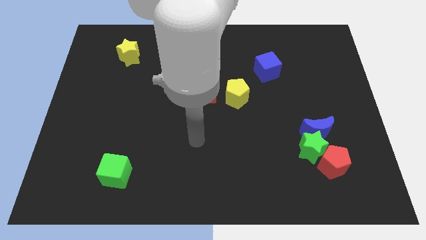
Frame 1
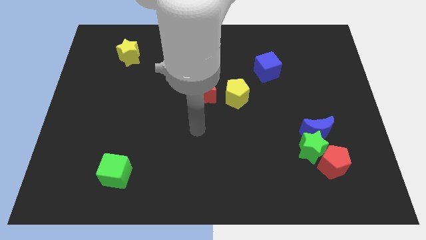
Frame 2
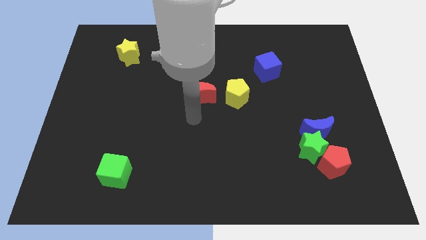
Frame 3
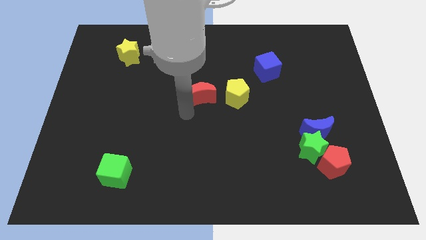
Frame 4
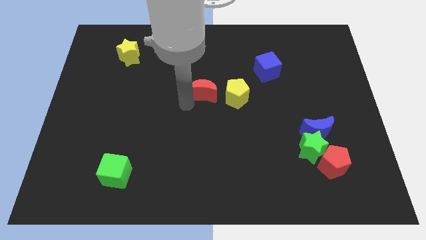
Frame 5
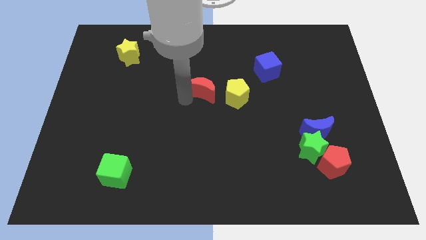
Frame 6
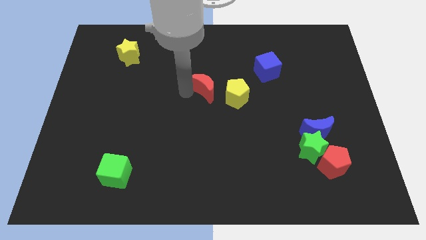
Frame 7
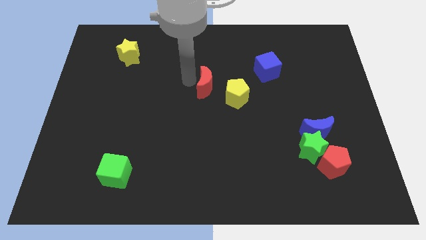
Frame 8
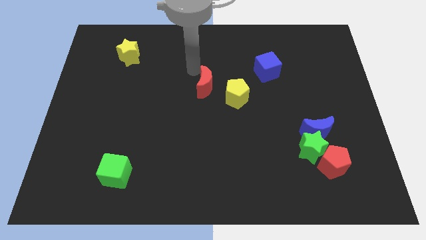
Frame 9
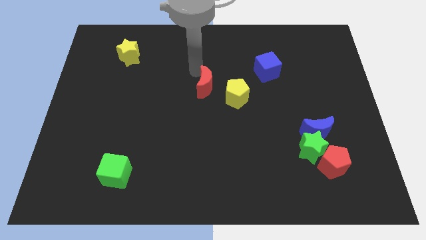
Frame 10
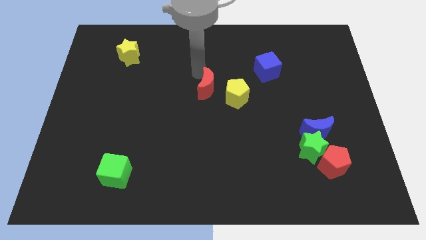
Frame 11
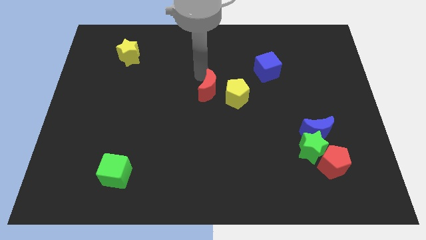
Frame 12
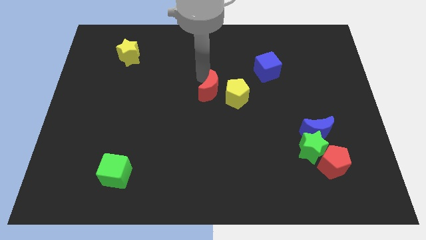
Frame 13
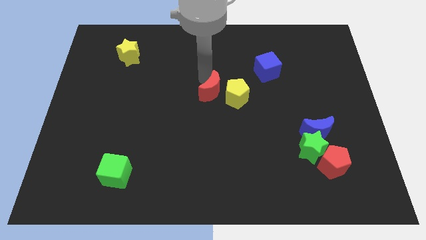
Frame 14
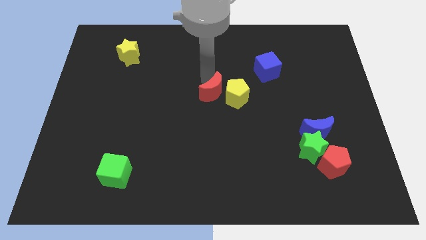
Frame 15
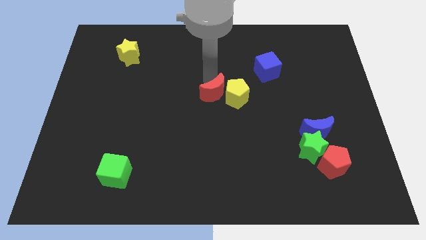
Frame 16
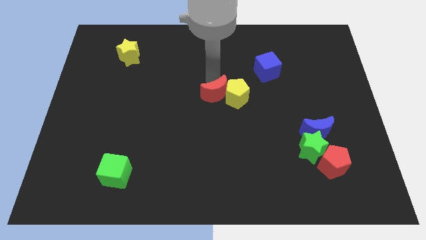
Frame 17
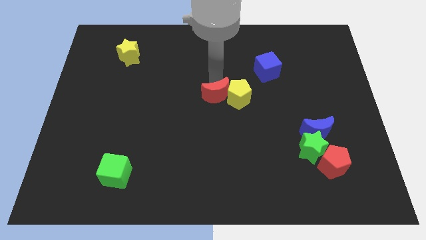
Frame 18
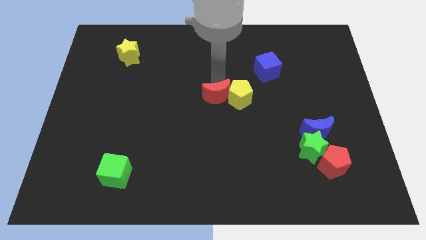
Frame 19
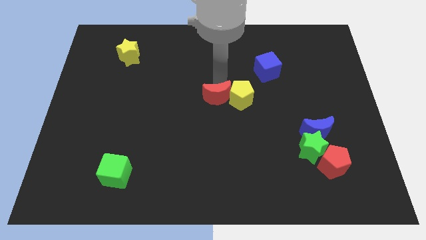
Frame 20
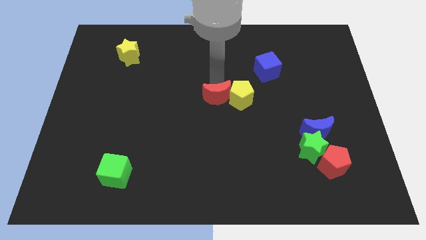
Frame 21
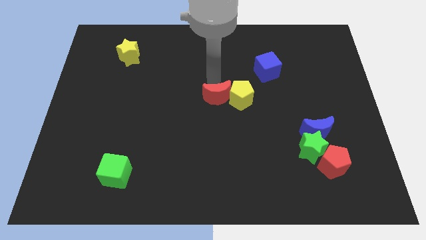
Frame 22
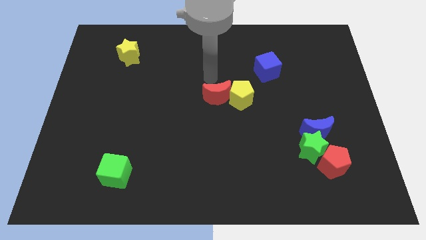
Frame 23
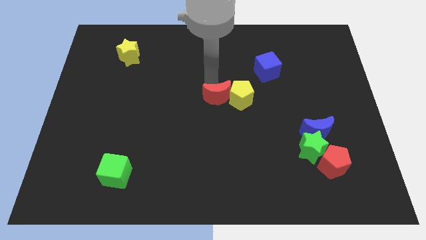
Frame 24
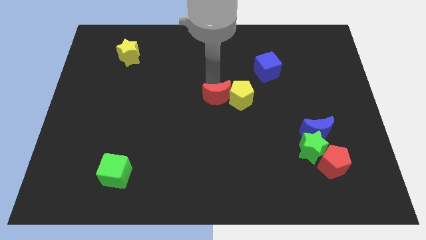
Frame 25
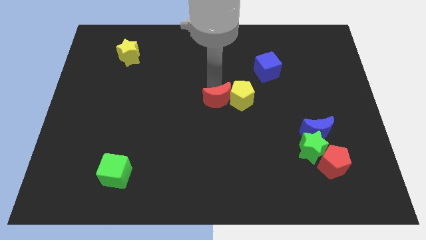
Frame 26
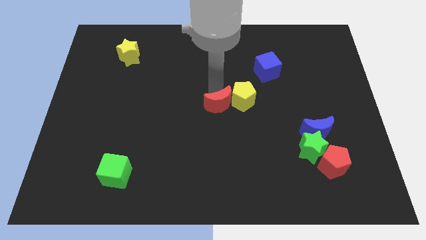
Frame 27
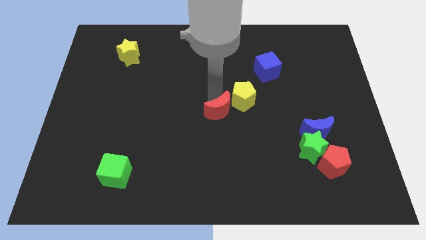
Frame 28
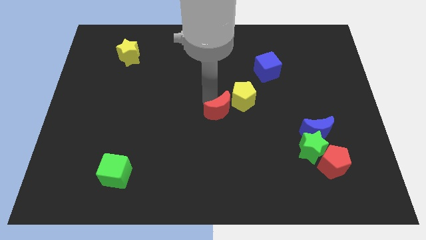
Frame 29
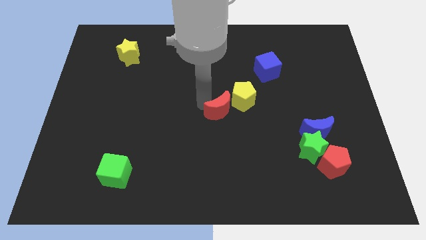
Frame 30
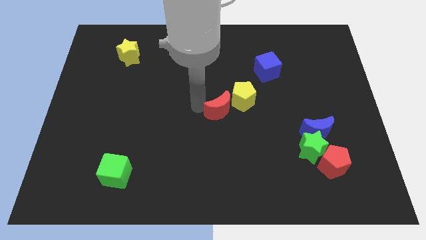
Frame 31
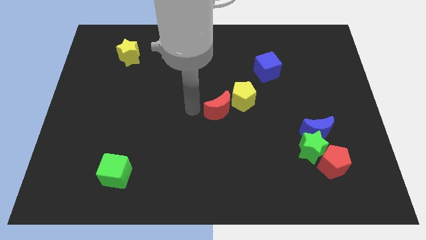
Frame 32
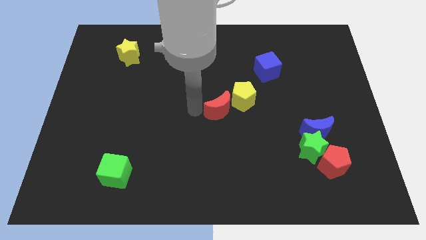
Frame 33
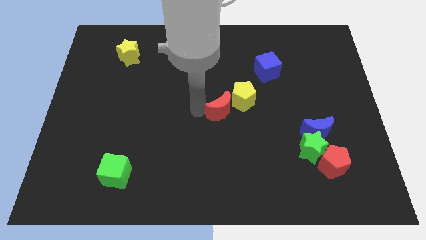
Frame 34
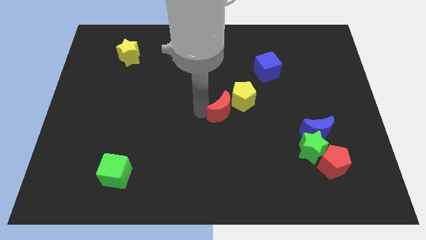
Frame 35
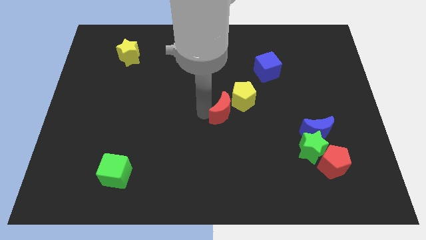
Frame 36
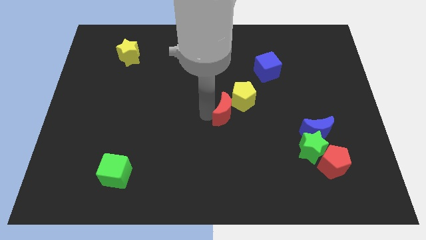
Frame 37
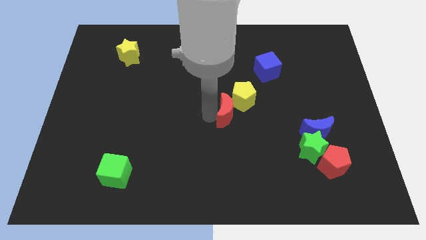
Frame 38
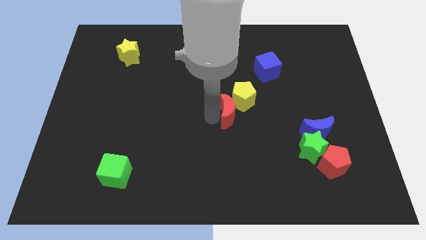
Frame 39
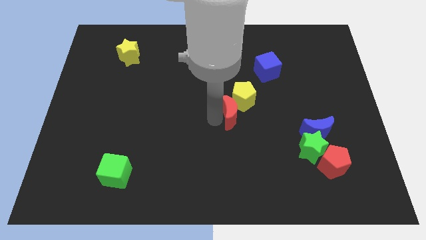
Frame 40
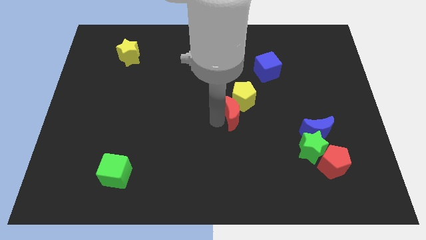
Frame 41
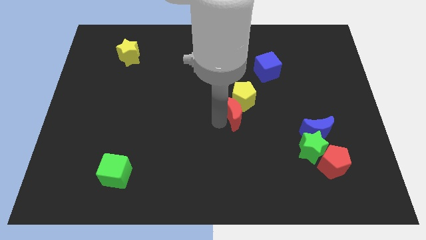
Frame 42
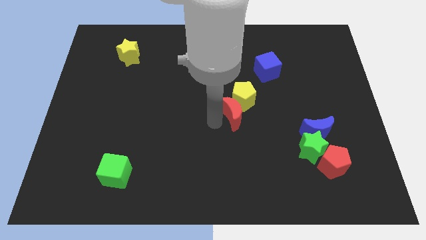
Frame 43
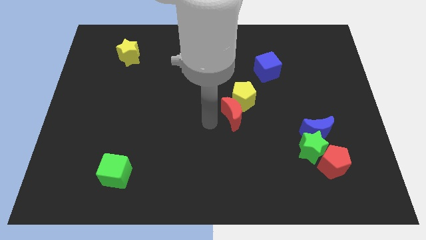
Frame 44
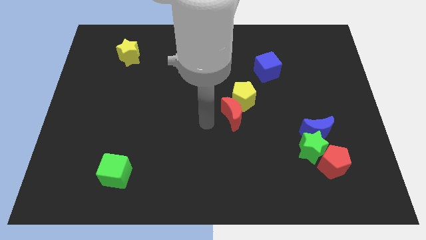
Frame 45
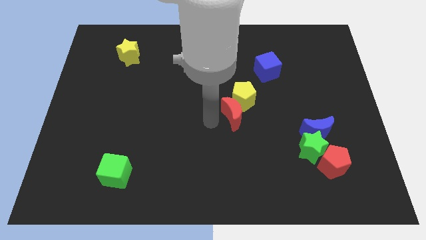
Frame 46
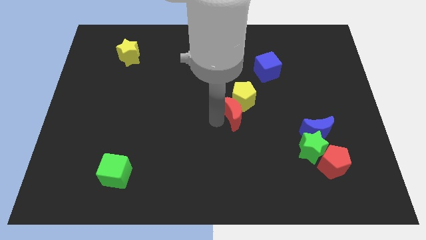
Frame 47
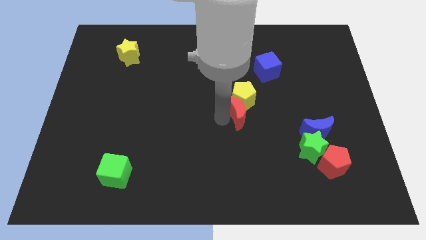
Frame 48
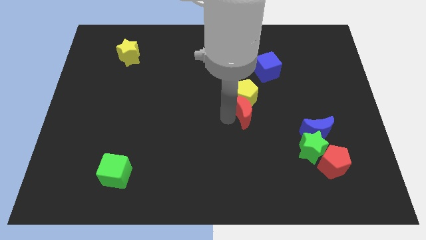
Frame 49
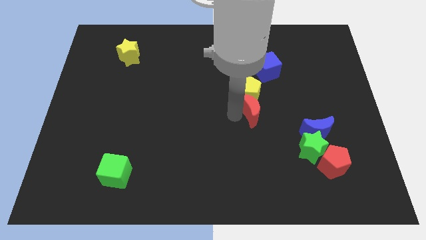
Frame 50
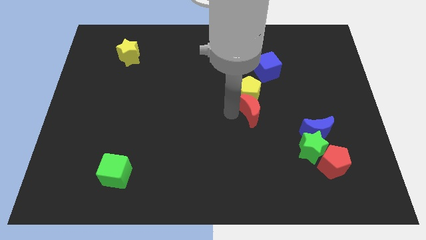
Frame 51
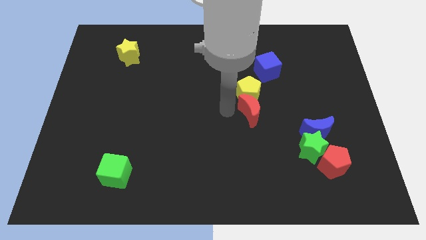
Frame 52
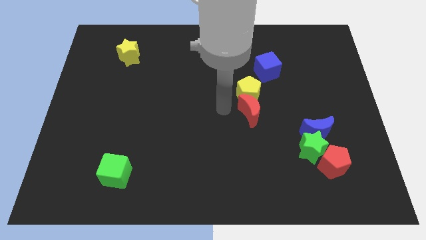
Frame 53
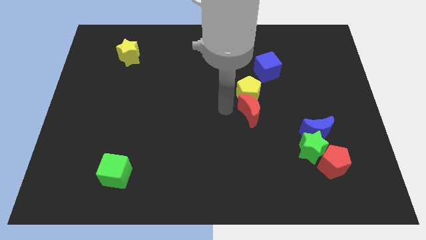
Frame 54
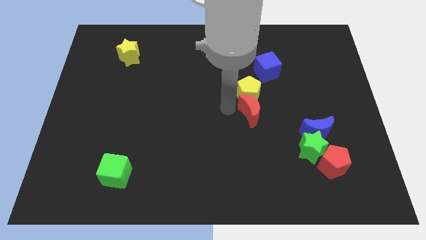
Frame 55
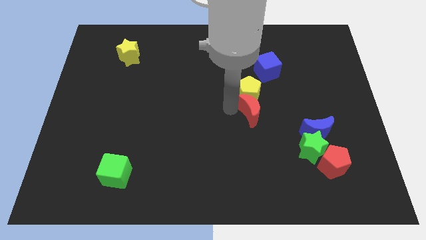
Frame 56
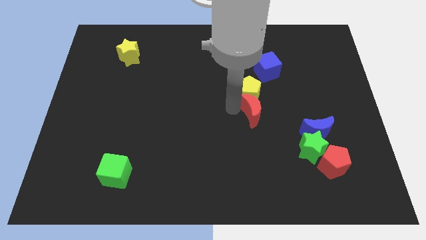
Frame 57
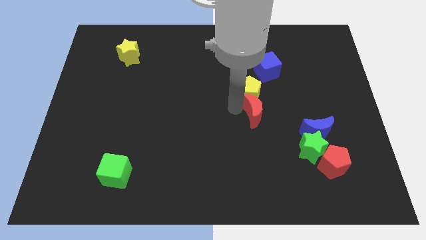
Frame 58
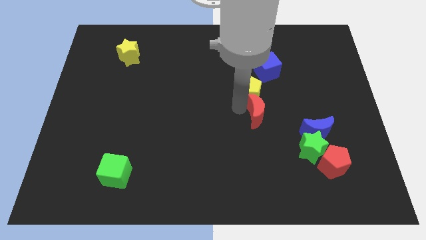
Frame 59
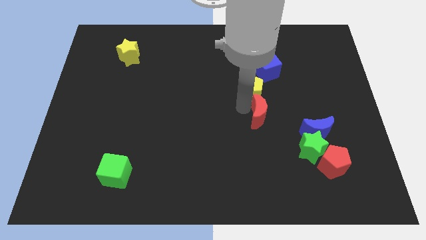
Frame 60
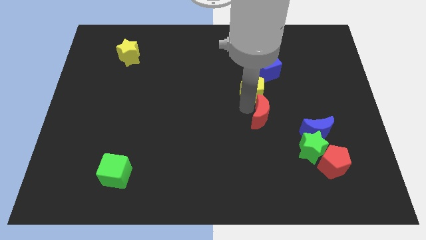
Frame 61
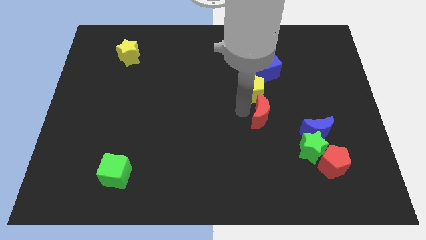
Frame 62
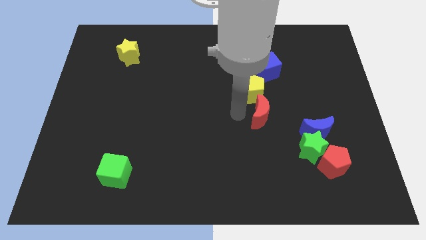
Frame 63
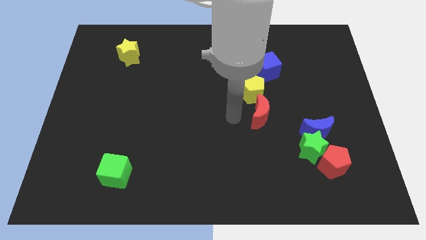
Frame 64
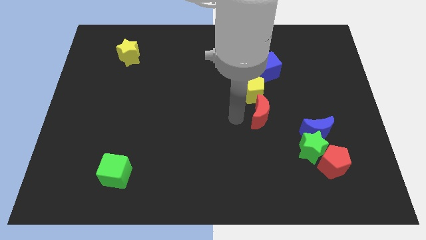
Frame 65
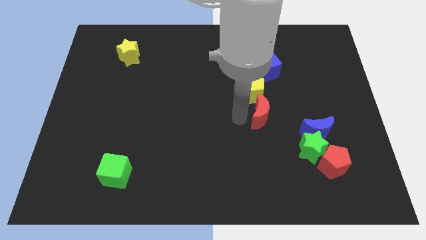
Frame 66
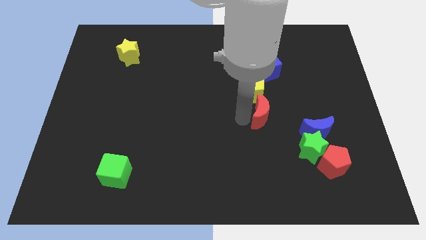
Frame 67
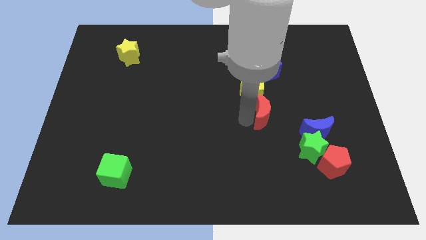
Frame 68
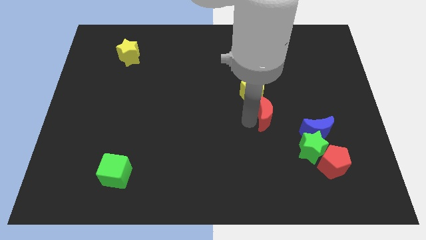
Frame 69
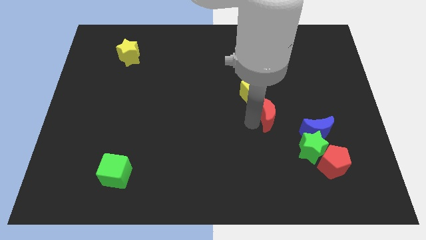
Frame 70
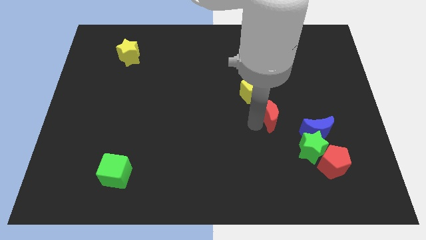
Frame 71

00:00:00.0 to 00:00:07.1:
move the red moon to the top left of the blue moon

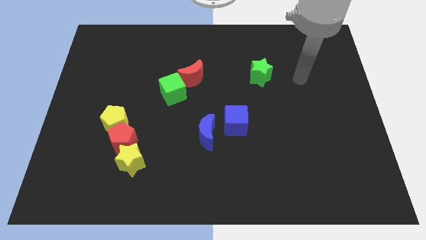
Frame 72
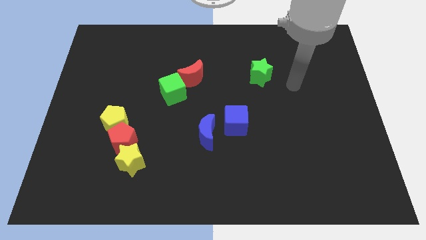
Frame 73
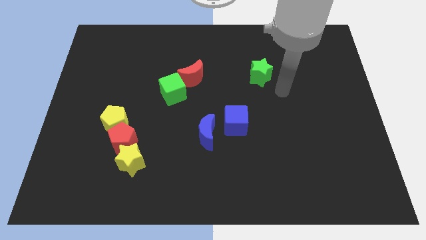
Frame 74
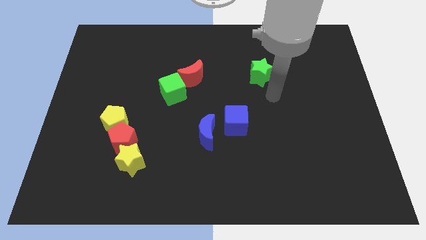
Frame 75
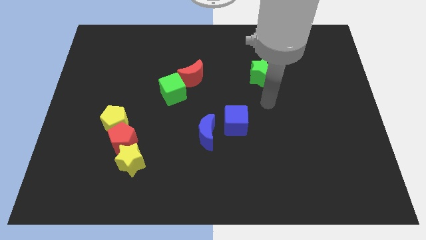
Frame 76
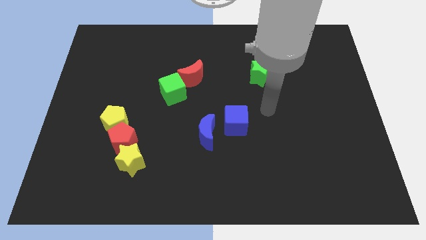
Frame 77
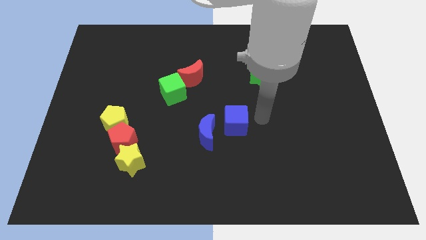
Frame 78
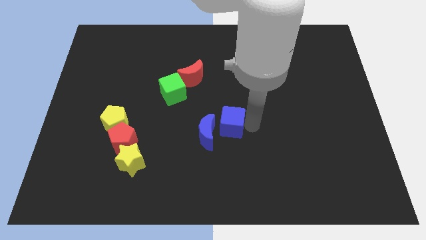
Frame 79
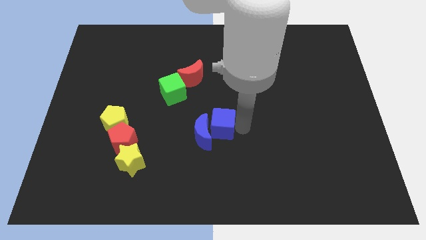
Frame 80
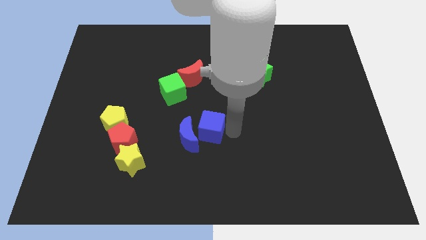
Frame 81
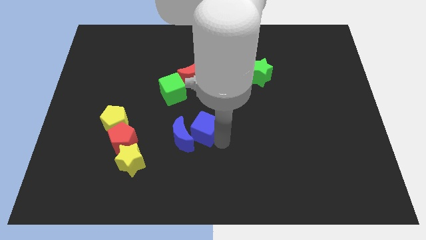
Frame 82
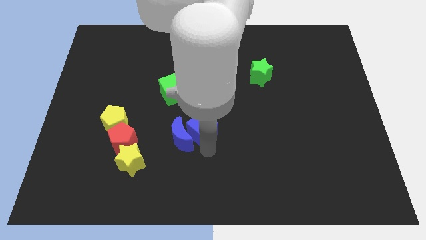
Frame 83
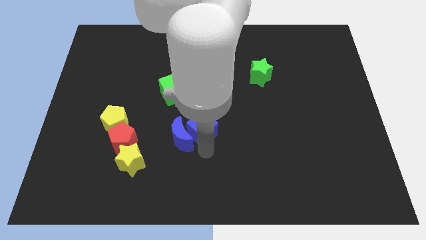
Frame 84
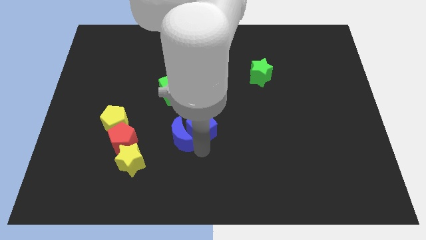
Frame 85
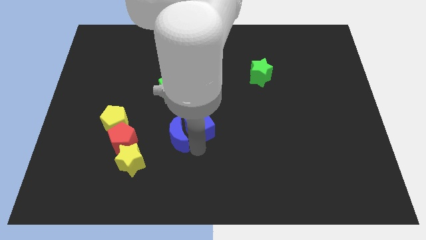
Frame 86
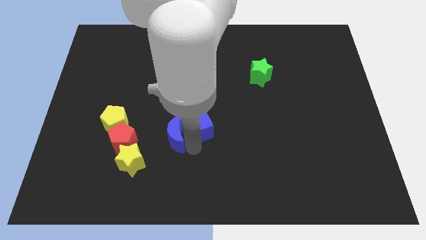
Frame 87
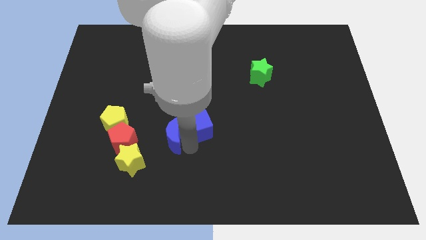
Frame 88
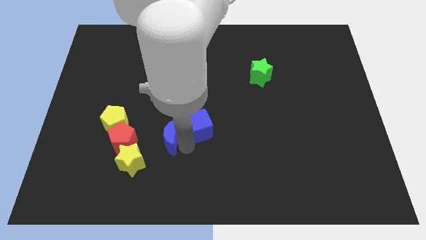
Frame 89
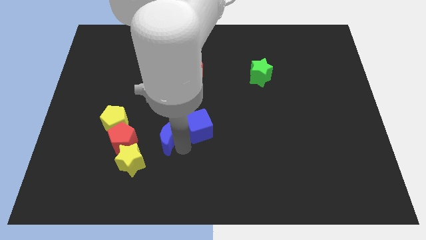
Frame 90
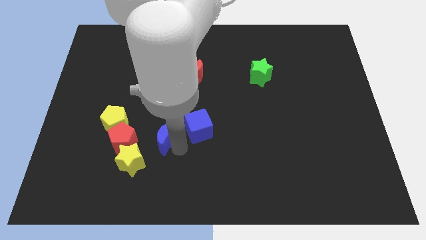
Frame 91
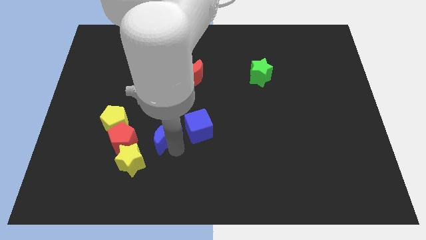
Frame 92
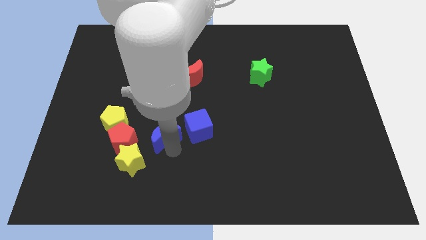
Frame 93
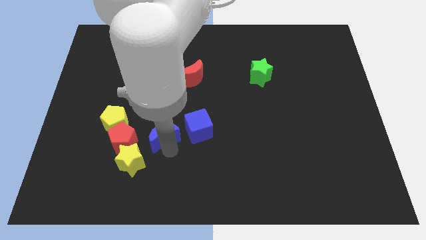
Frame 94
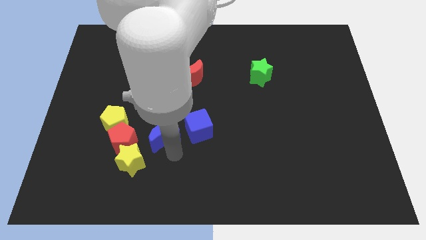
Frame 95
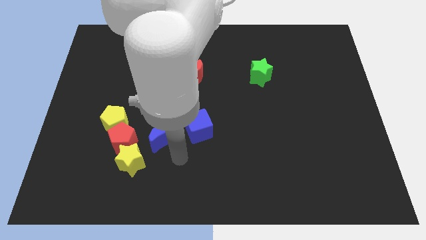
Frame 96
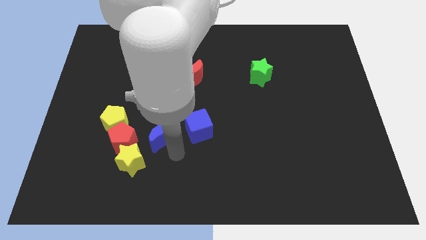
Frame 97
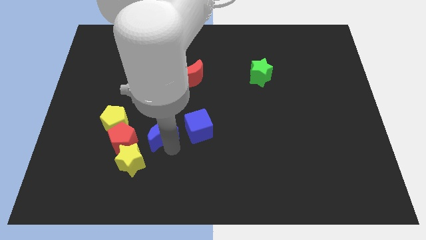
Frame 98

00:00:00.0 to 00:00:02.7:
move the blue moon to the top right side of the red pentagon
